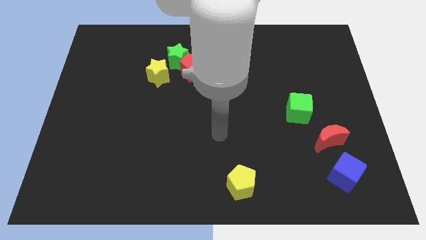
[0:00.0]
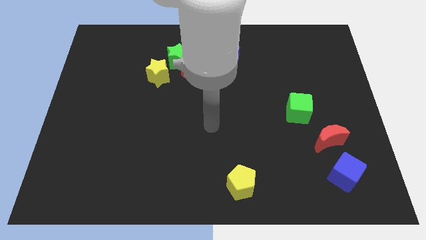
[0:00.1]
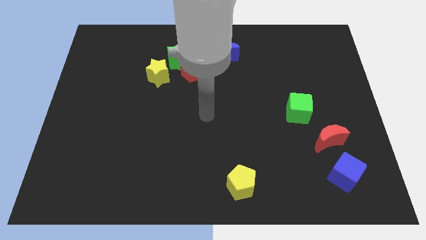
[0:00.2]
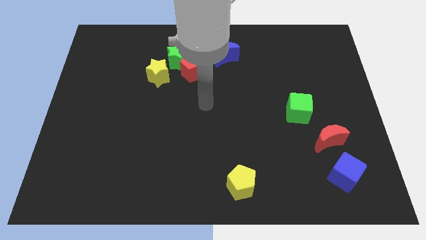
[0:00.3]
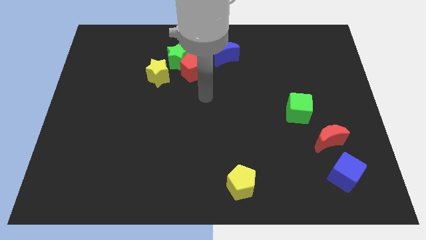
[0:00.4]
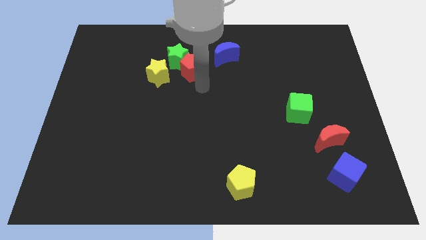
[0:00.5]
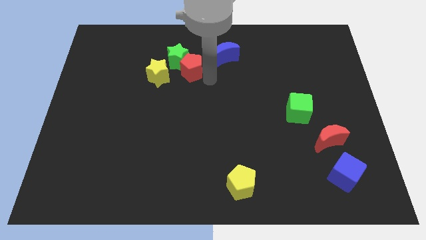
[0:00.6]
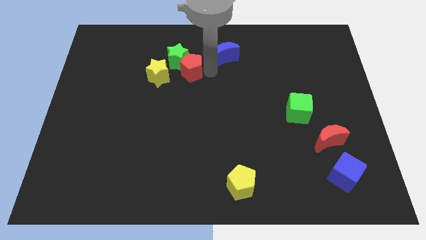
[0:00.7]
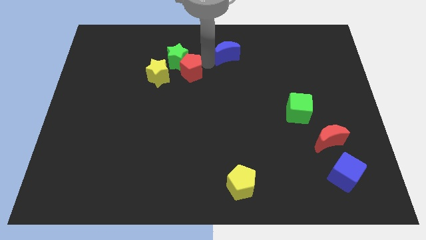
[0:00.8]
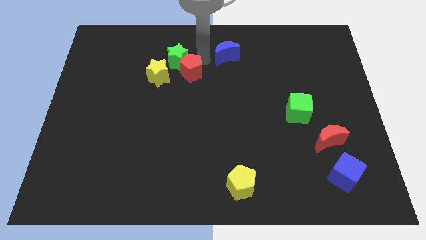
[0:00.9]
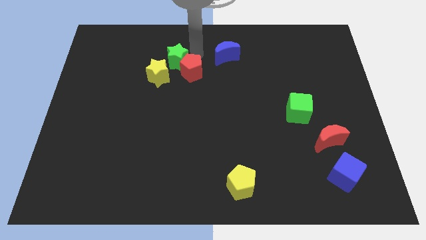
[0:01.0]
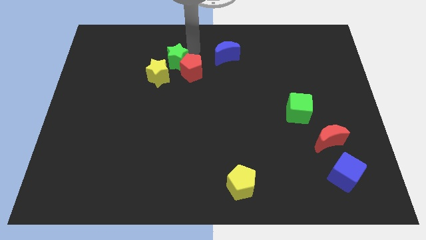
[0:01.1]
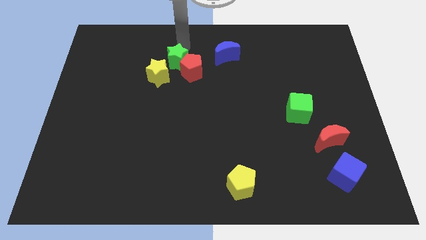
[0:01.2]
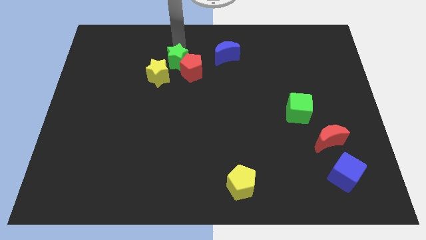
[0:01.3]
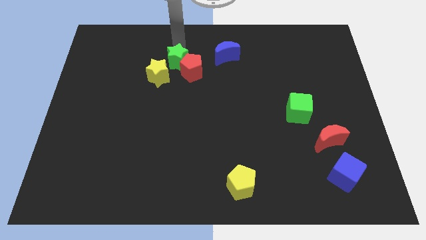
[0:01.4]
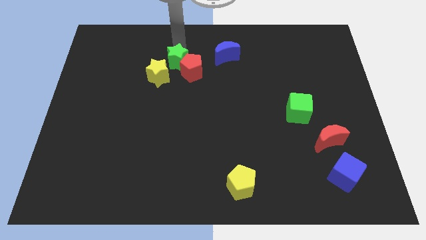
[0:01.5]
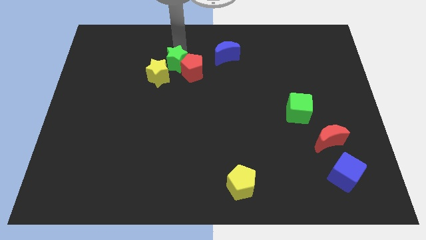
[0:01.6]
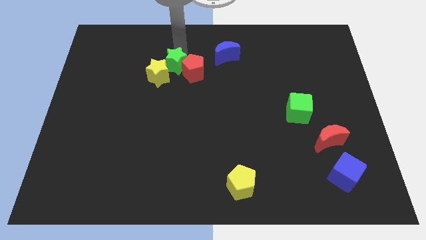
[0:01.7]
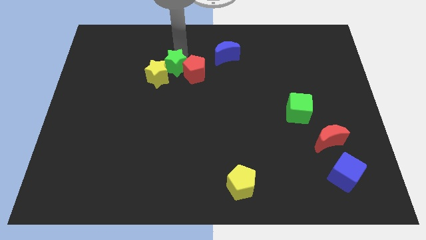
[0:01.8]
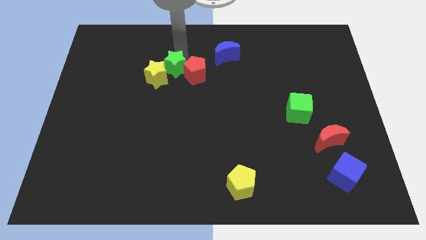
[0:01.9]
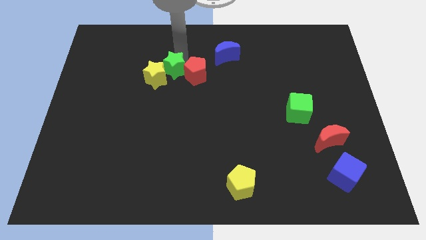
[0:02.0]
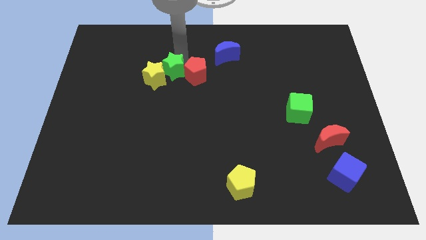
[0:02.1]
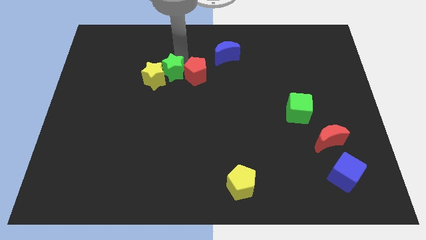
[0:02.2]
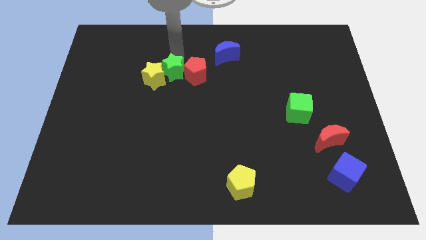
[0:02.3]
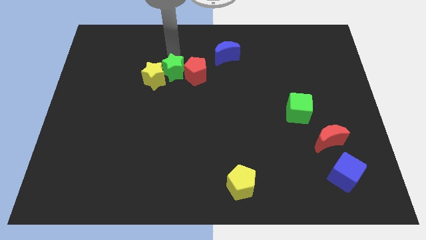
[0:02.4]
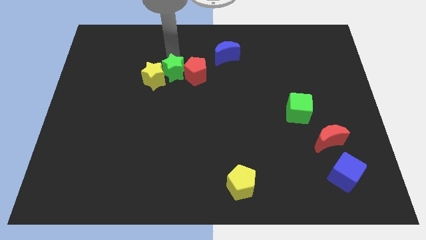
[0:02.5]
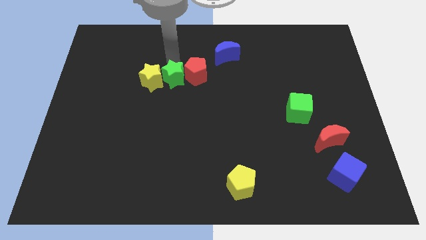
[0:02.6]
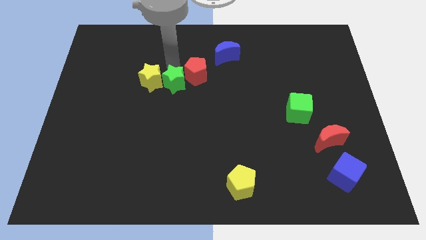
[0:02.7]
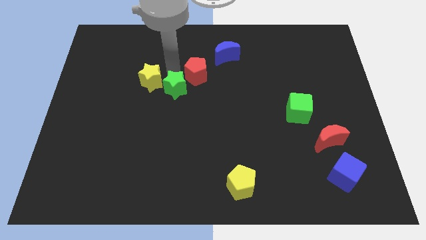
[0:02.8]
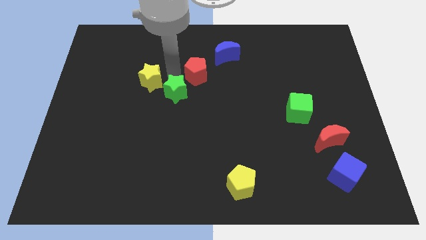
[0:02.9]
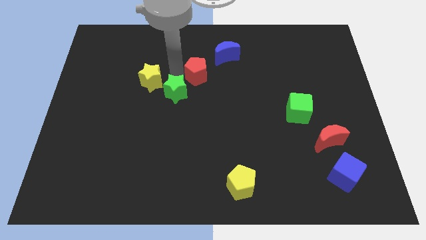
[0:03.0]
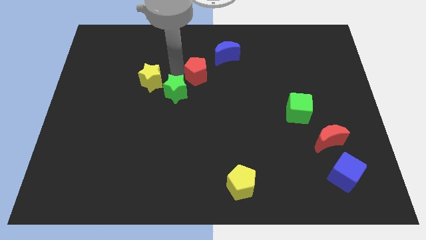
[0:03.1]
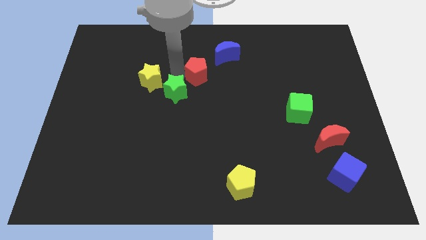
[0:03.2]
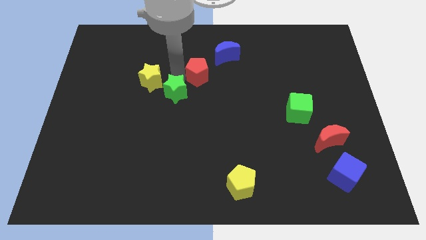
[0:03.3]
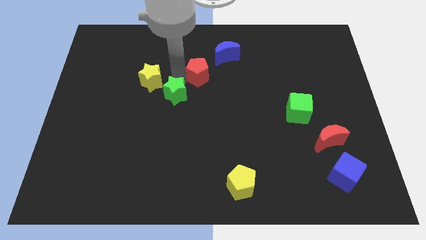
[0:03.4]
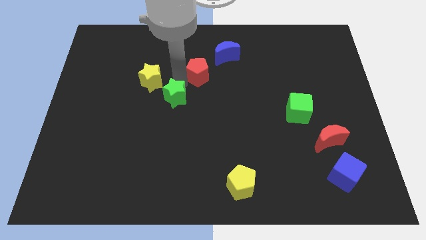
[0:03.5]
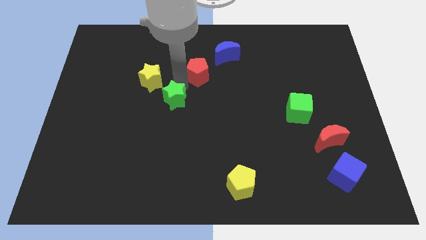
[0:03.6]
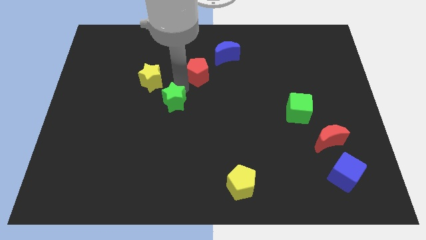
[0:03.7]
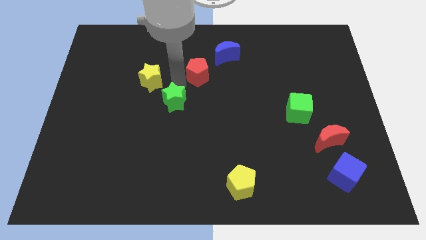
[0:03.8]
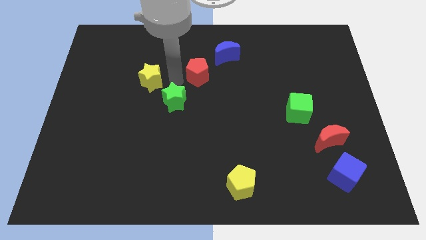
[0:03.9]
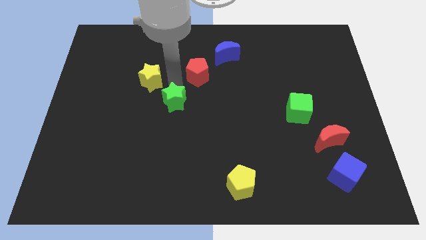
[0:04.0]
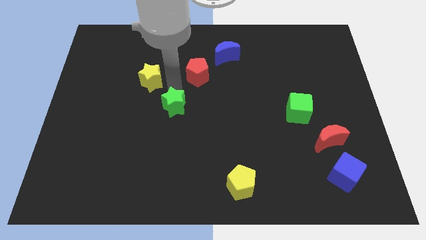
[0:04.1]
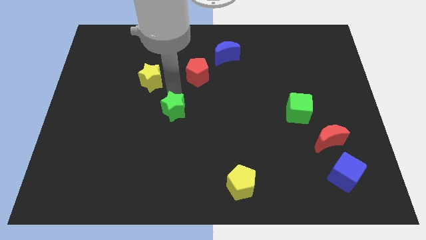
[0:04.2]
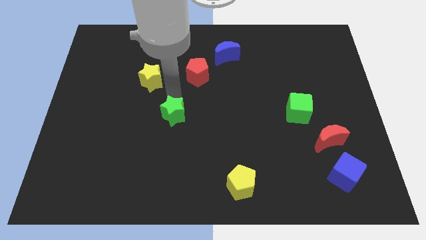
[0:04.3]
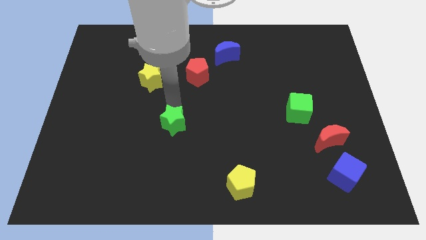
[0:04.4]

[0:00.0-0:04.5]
push the green star downwards

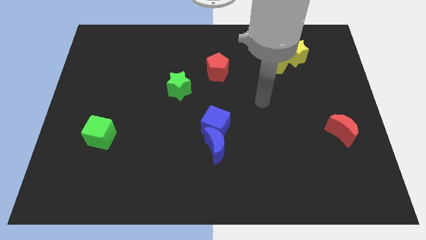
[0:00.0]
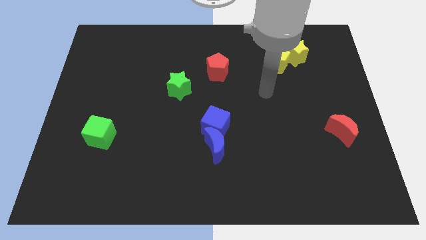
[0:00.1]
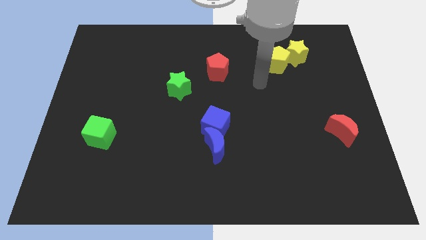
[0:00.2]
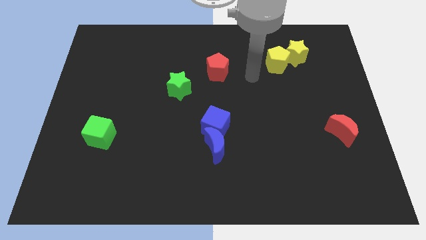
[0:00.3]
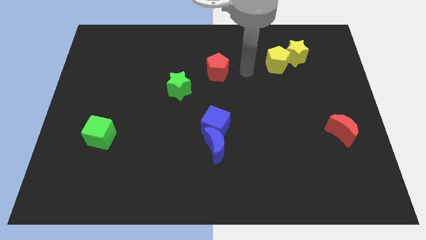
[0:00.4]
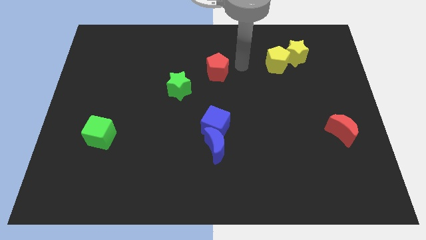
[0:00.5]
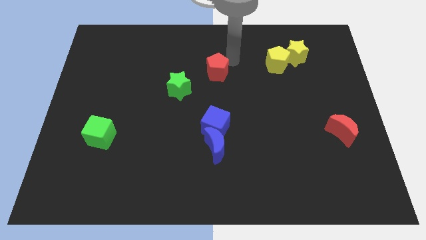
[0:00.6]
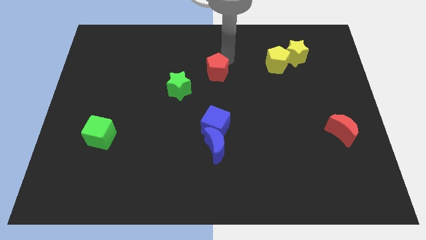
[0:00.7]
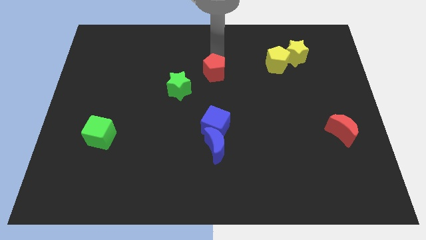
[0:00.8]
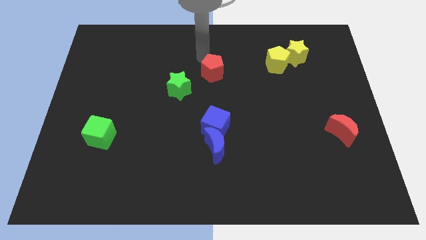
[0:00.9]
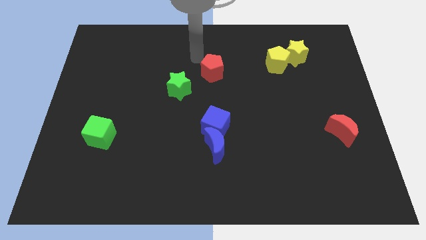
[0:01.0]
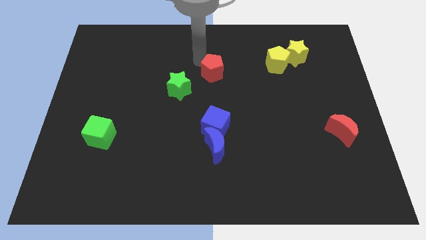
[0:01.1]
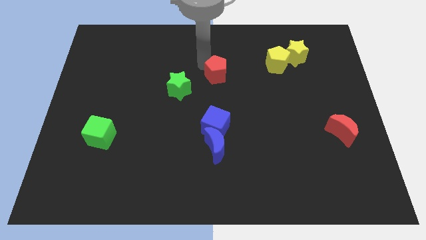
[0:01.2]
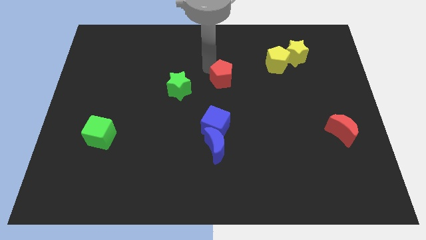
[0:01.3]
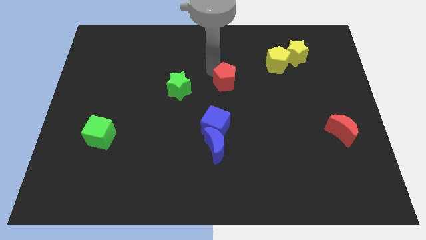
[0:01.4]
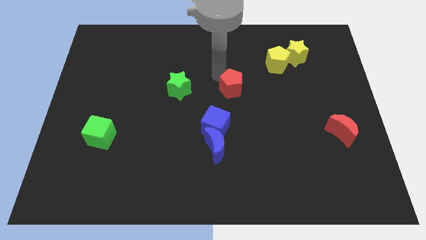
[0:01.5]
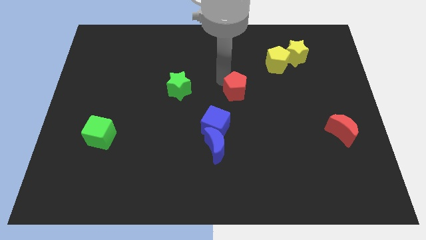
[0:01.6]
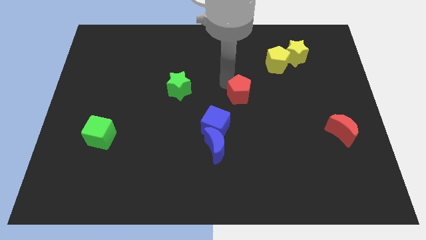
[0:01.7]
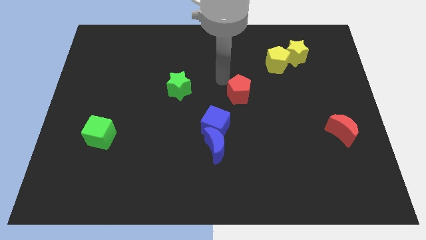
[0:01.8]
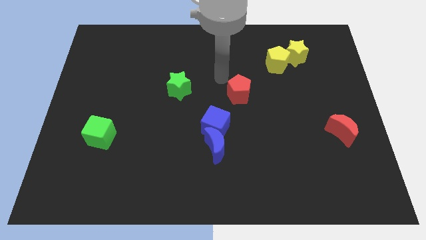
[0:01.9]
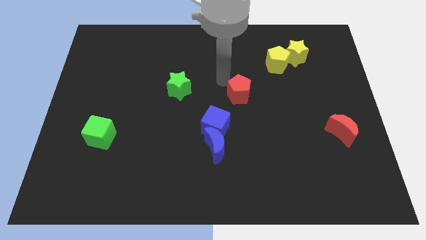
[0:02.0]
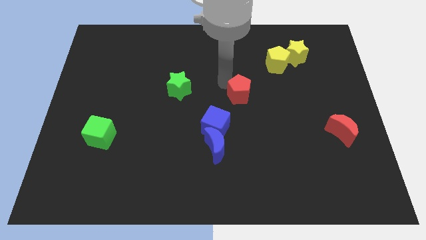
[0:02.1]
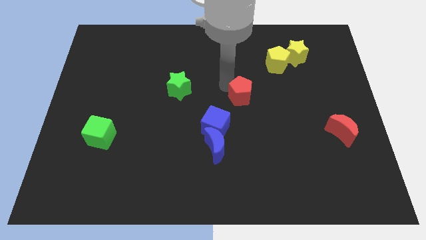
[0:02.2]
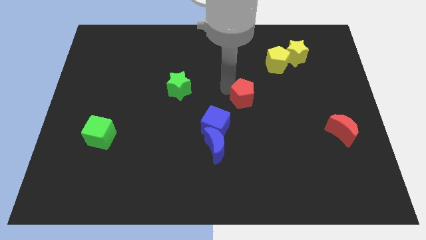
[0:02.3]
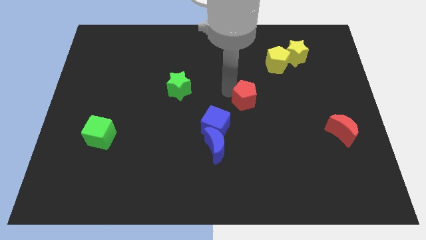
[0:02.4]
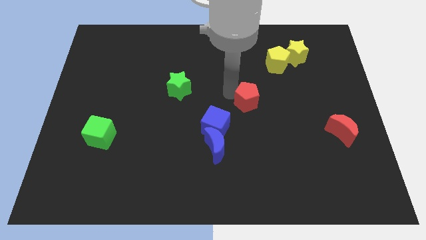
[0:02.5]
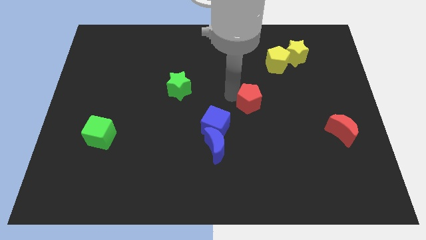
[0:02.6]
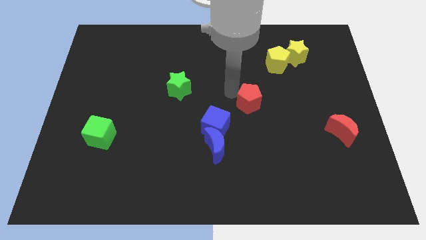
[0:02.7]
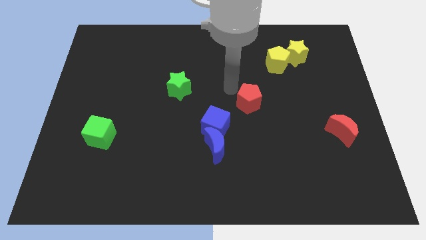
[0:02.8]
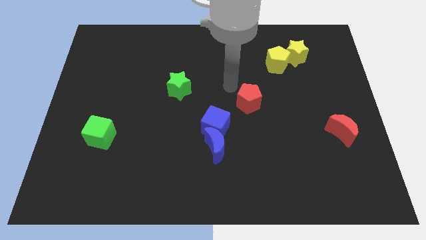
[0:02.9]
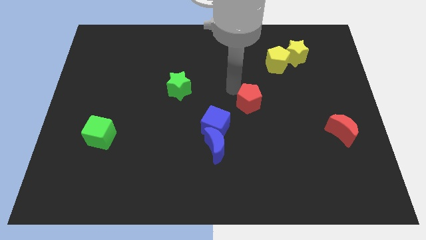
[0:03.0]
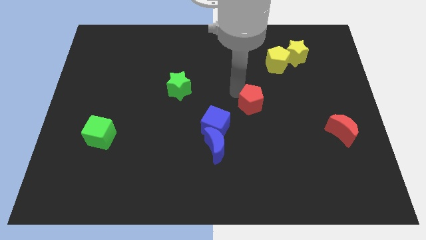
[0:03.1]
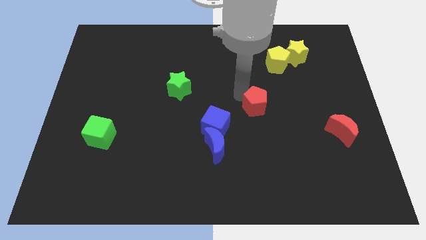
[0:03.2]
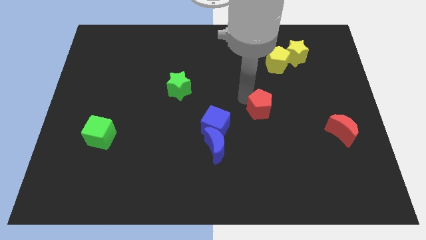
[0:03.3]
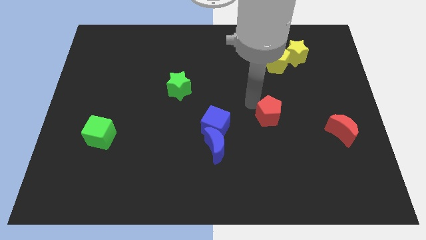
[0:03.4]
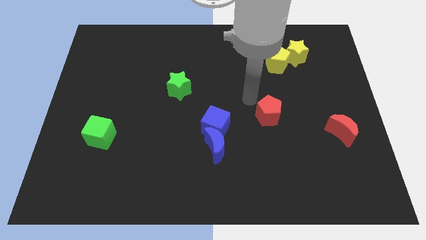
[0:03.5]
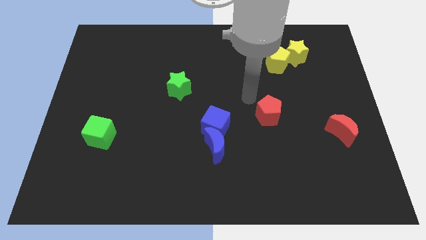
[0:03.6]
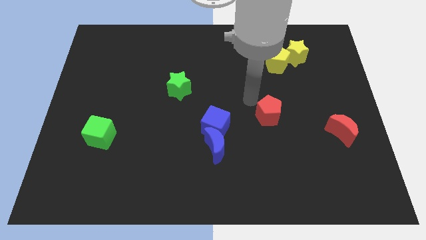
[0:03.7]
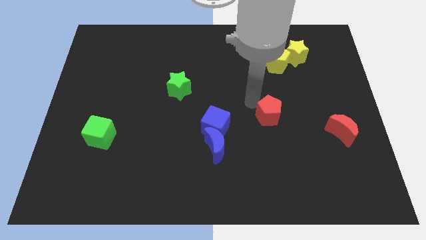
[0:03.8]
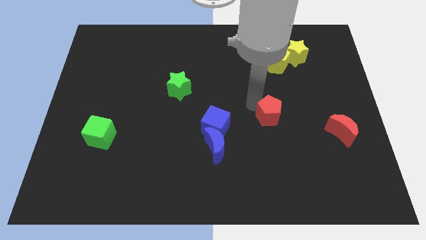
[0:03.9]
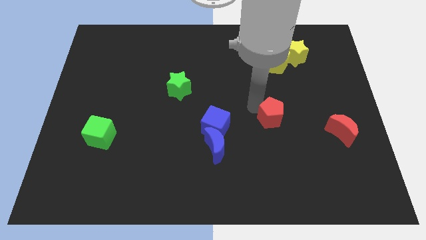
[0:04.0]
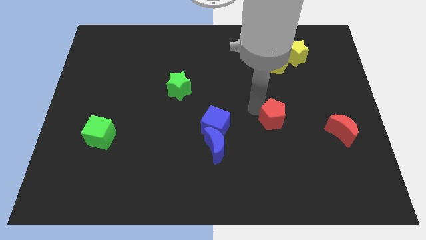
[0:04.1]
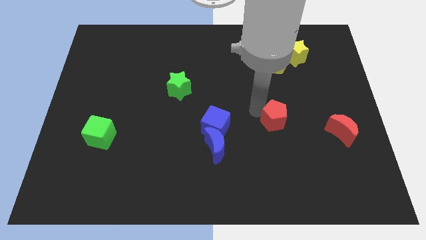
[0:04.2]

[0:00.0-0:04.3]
push the red pentagon downwards and to the right
